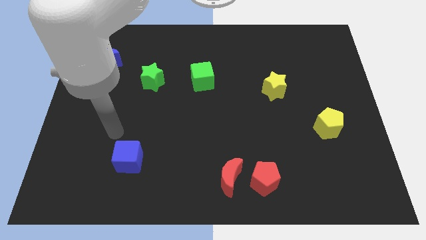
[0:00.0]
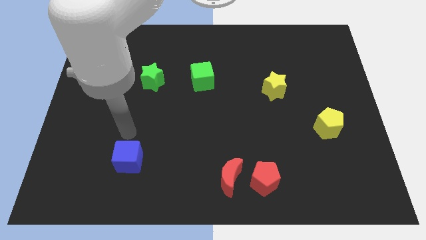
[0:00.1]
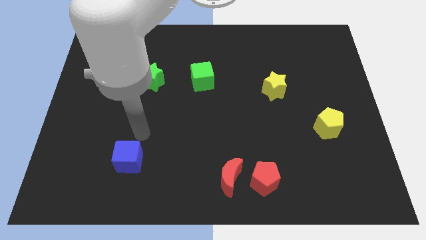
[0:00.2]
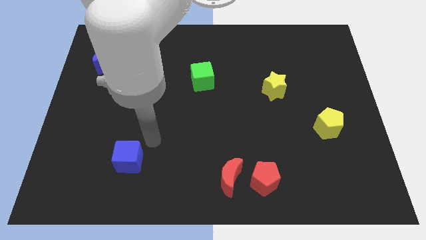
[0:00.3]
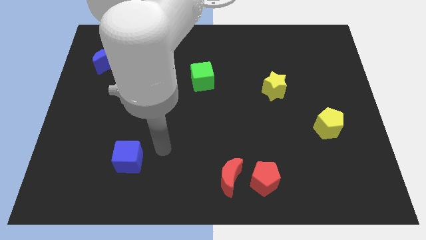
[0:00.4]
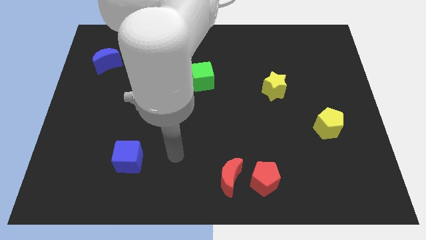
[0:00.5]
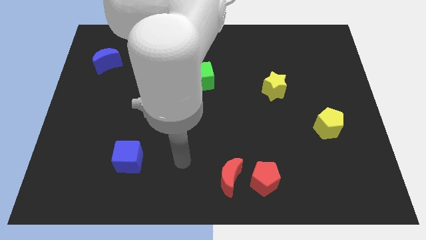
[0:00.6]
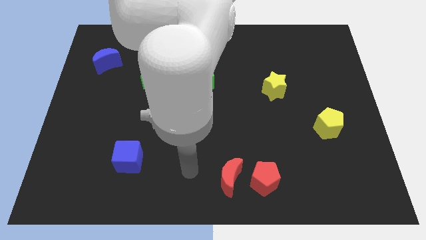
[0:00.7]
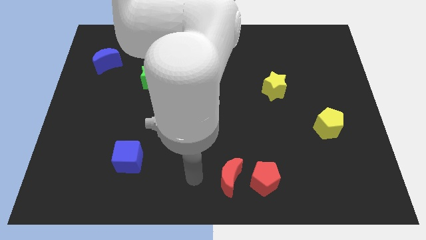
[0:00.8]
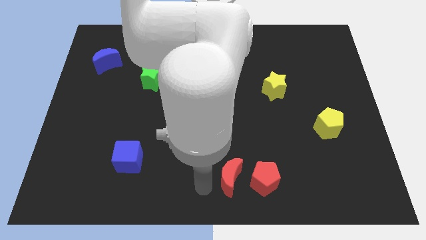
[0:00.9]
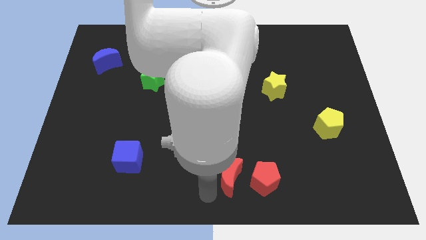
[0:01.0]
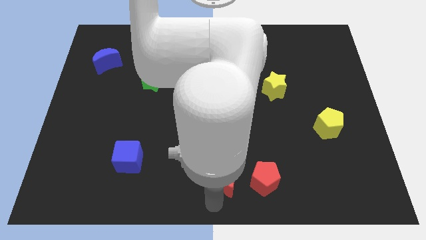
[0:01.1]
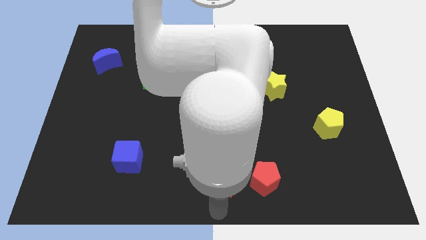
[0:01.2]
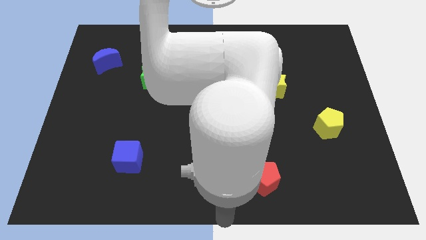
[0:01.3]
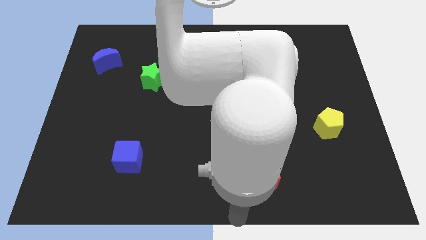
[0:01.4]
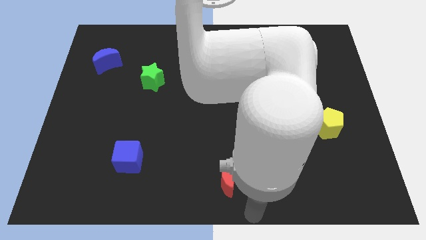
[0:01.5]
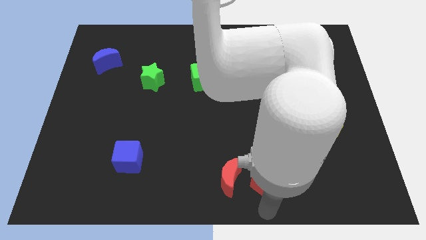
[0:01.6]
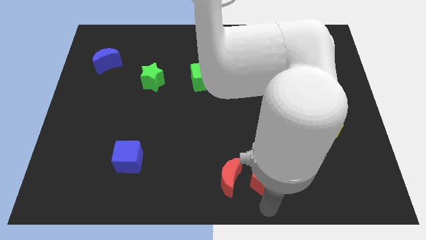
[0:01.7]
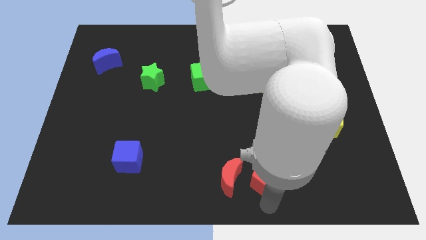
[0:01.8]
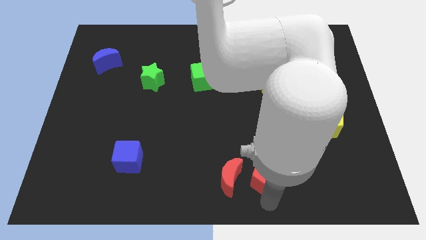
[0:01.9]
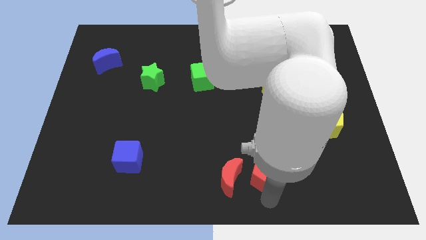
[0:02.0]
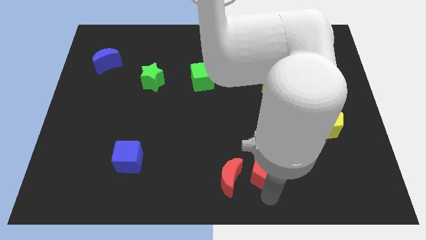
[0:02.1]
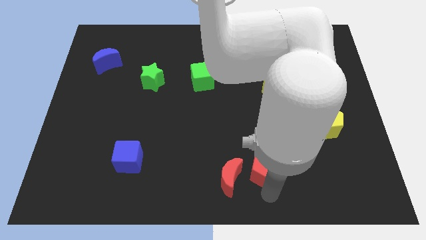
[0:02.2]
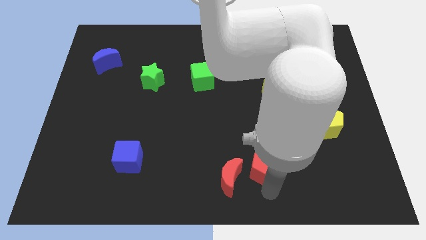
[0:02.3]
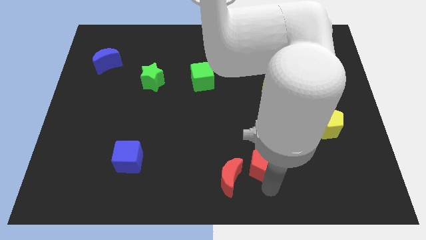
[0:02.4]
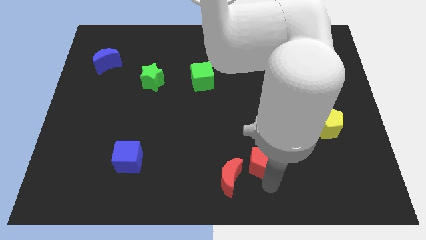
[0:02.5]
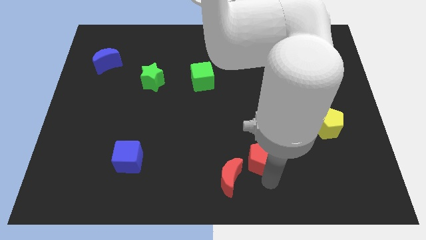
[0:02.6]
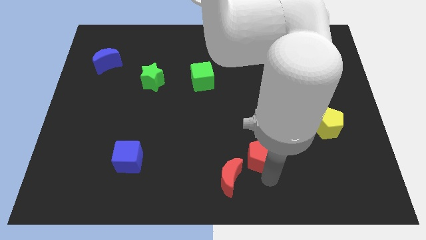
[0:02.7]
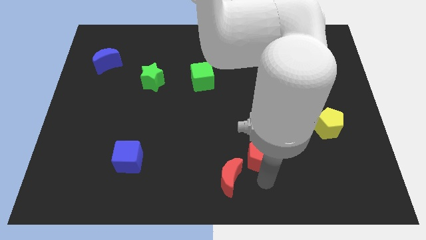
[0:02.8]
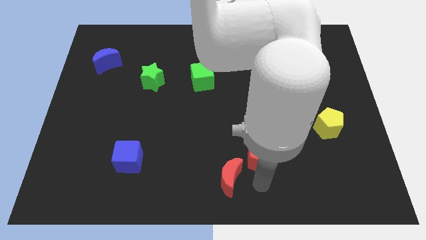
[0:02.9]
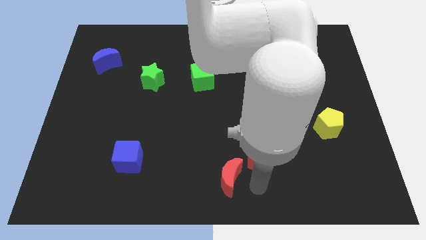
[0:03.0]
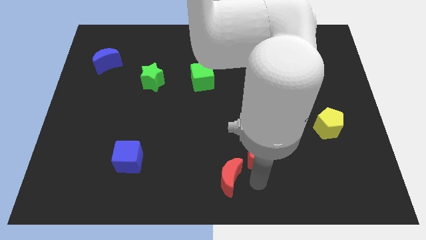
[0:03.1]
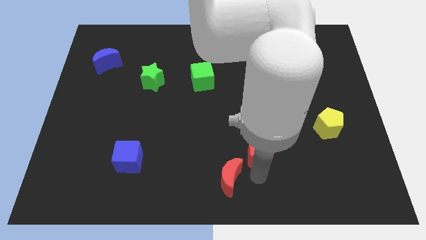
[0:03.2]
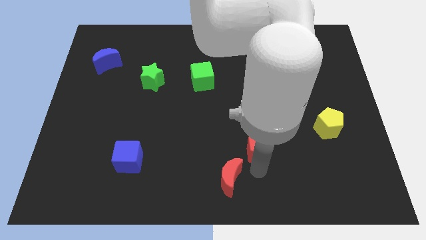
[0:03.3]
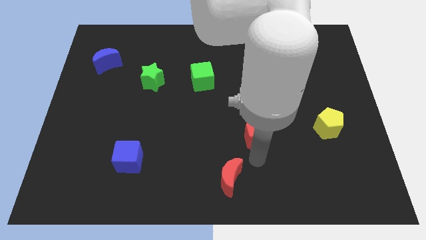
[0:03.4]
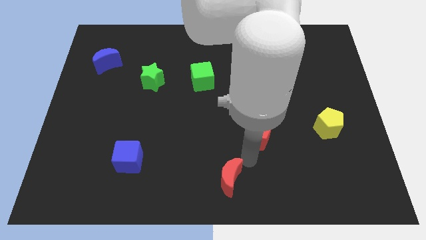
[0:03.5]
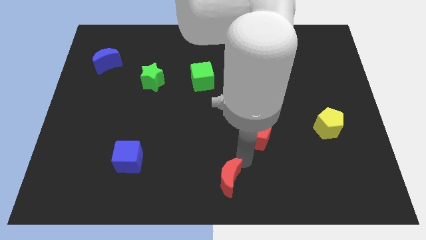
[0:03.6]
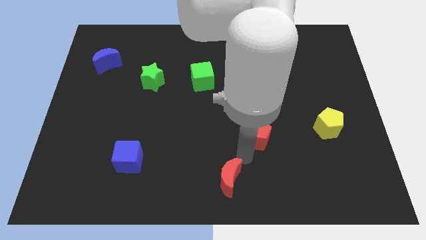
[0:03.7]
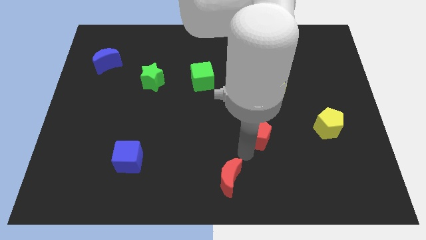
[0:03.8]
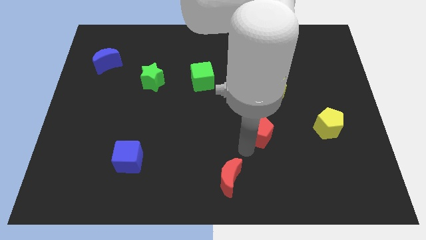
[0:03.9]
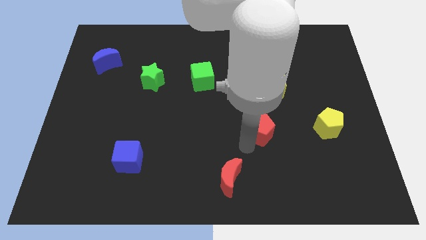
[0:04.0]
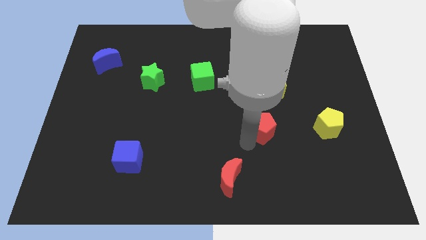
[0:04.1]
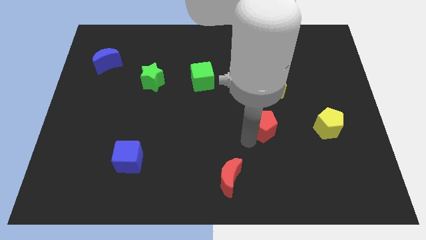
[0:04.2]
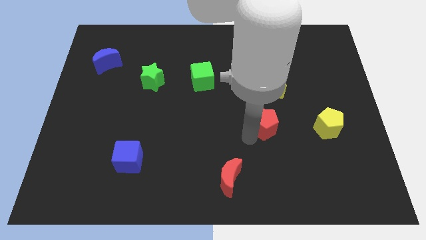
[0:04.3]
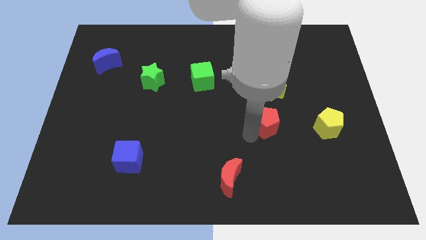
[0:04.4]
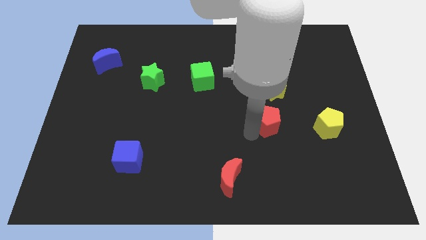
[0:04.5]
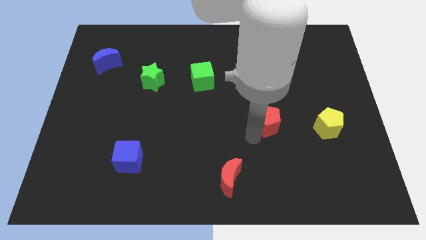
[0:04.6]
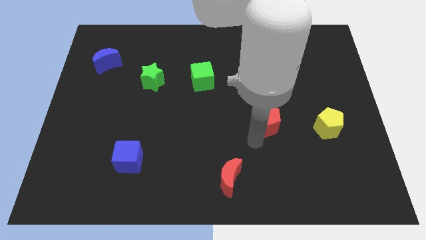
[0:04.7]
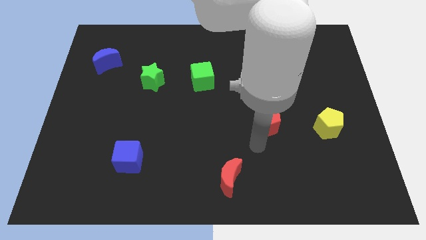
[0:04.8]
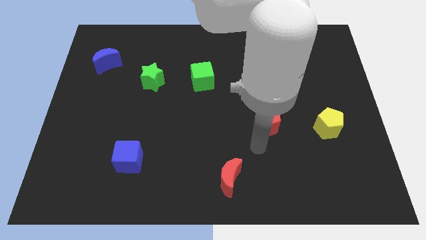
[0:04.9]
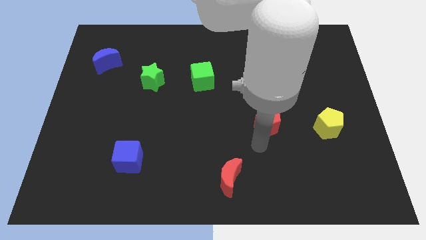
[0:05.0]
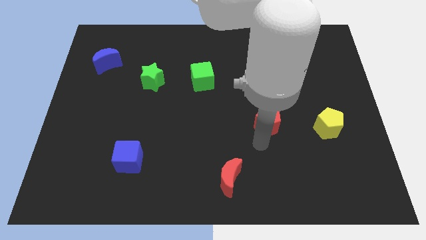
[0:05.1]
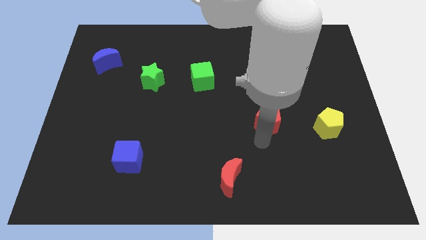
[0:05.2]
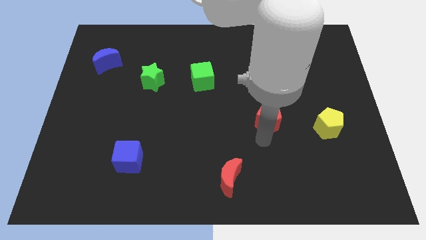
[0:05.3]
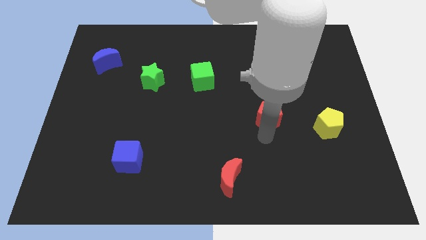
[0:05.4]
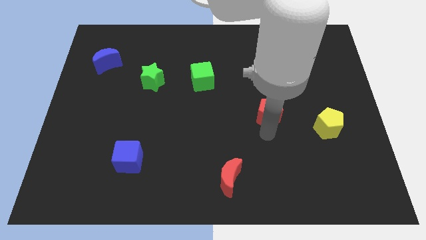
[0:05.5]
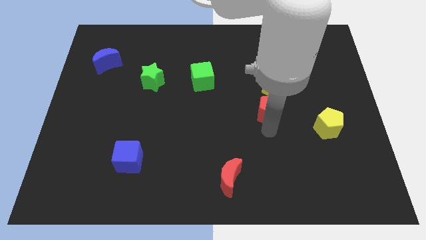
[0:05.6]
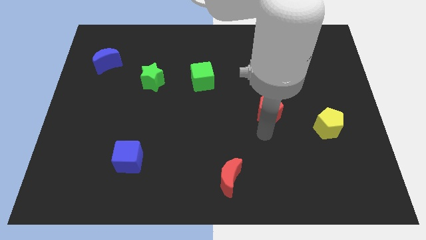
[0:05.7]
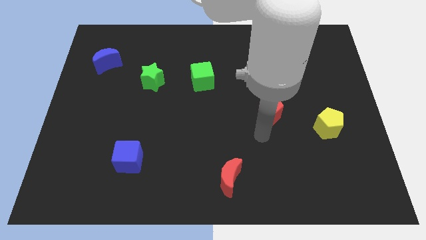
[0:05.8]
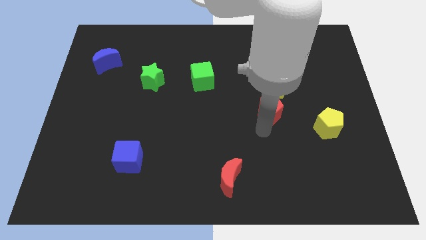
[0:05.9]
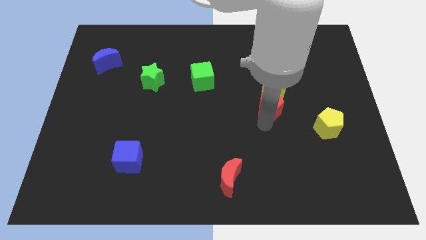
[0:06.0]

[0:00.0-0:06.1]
put the red pentagon next to the yellow star
